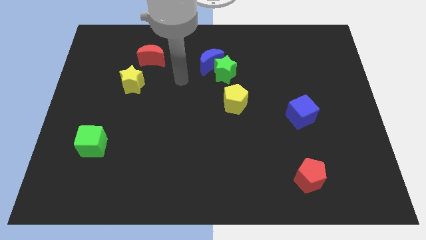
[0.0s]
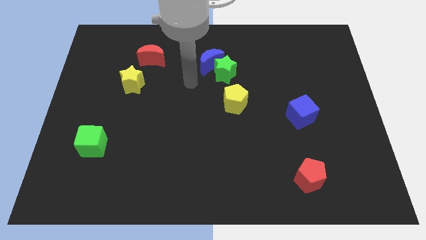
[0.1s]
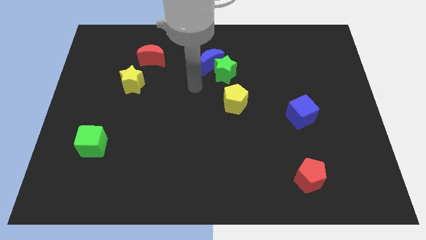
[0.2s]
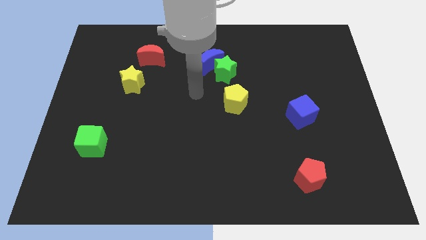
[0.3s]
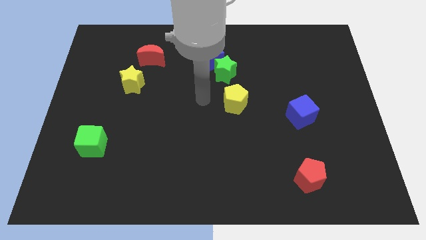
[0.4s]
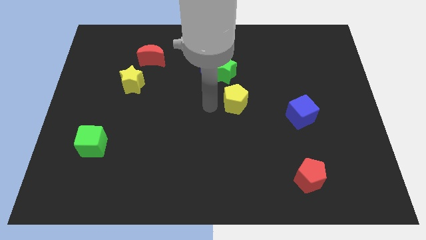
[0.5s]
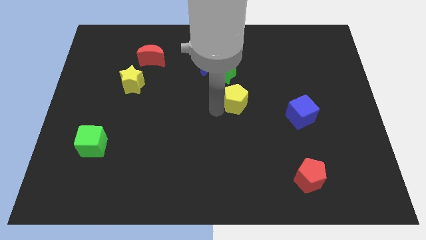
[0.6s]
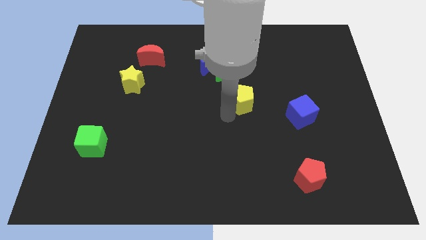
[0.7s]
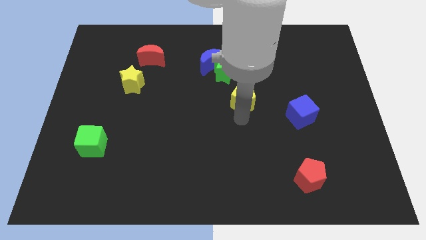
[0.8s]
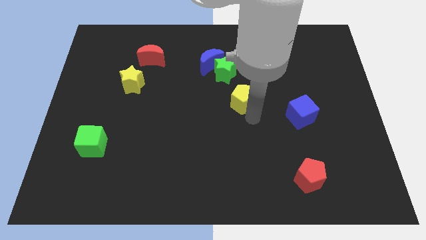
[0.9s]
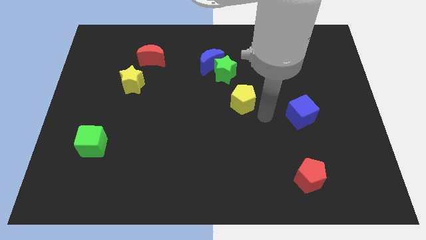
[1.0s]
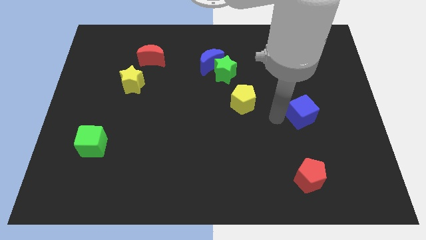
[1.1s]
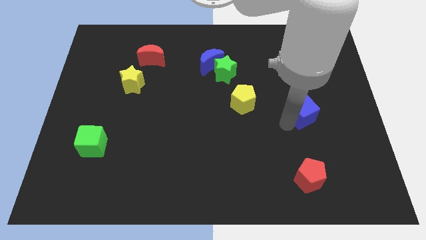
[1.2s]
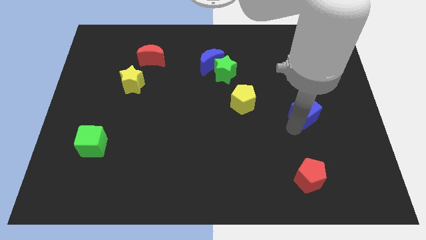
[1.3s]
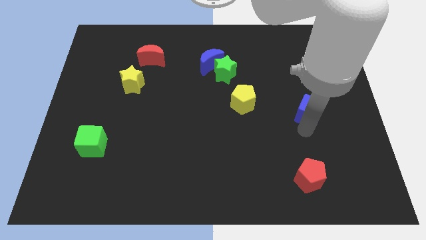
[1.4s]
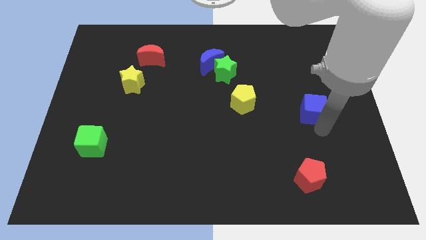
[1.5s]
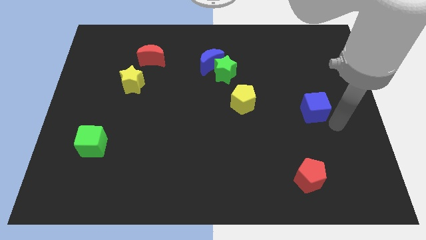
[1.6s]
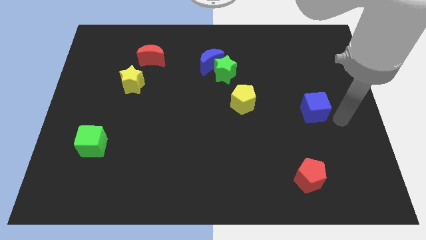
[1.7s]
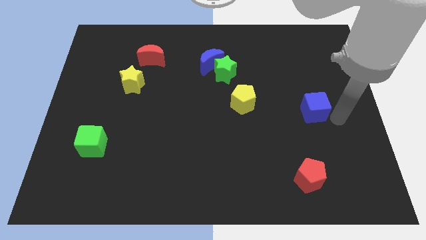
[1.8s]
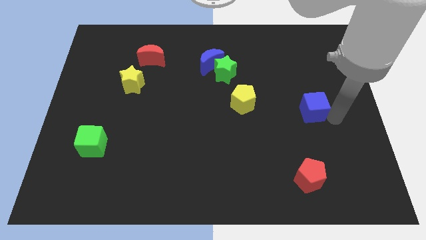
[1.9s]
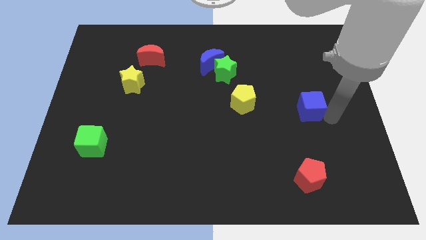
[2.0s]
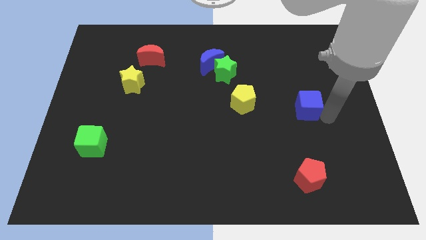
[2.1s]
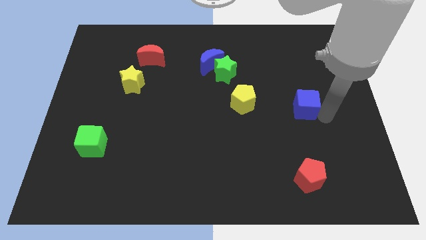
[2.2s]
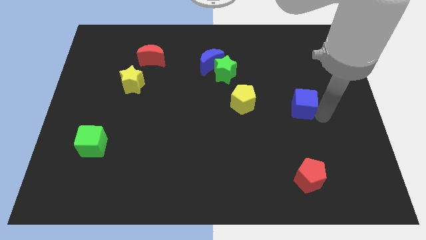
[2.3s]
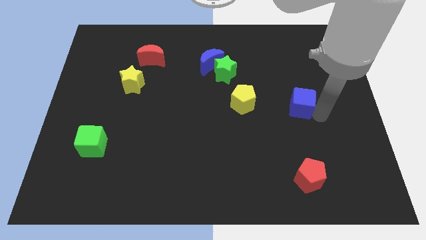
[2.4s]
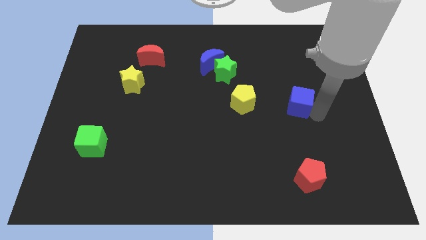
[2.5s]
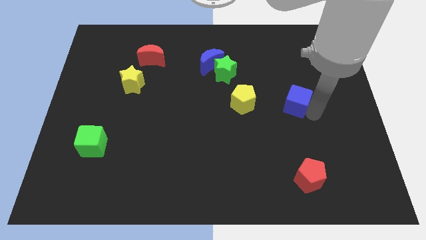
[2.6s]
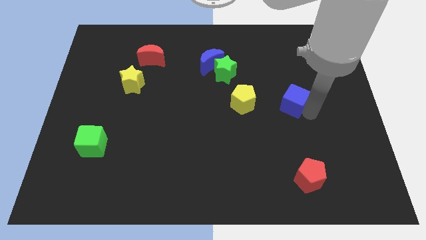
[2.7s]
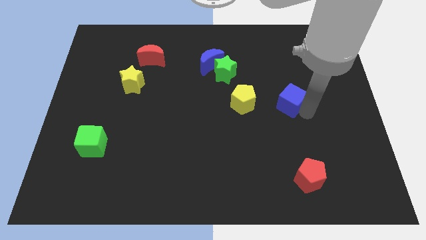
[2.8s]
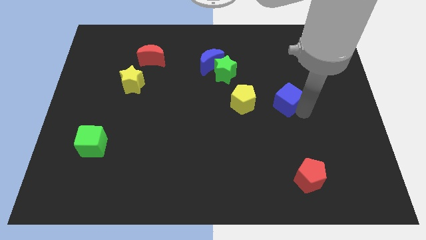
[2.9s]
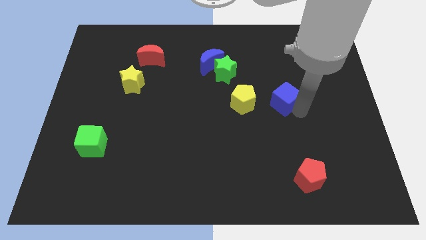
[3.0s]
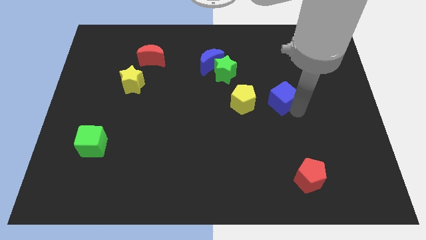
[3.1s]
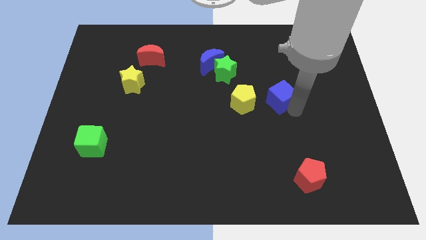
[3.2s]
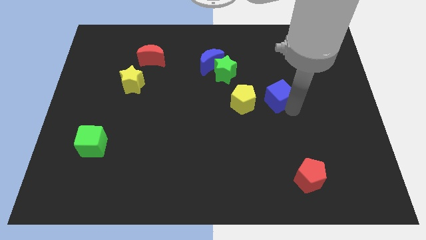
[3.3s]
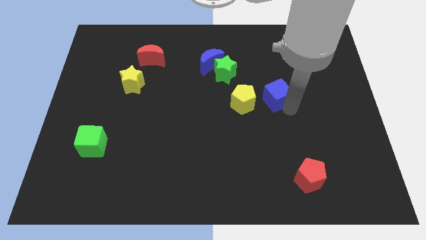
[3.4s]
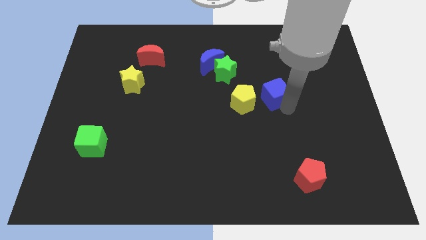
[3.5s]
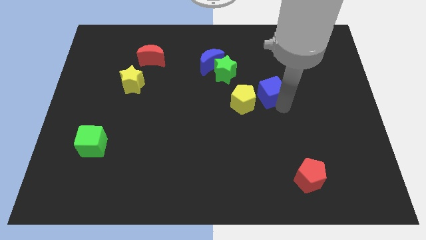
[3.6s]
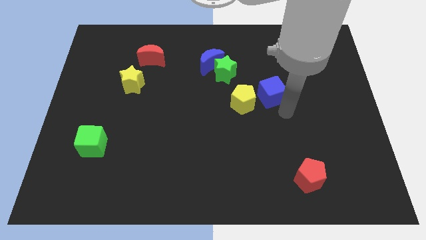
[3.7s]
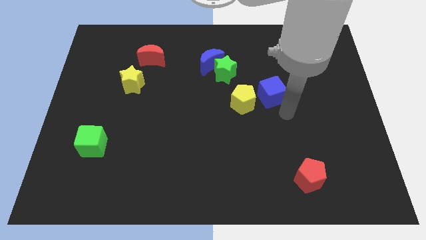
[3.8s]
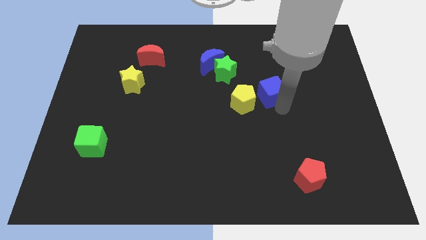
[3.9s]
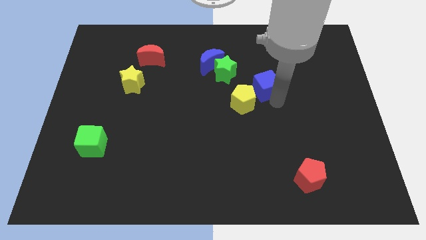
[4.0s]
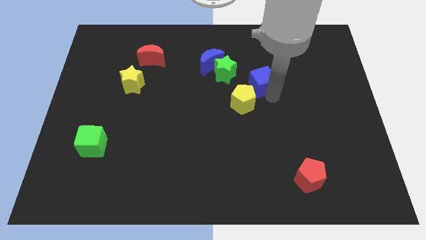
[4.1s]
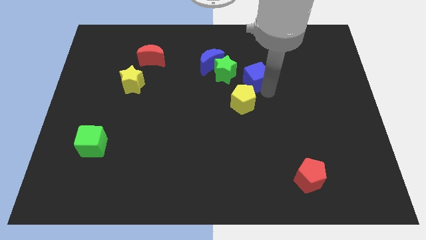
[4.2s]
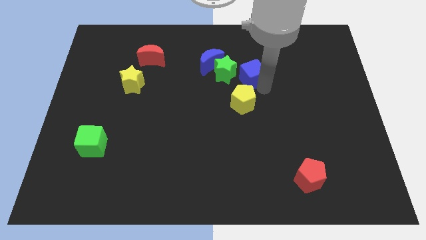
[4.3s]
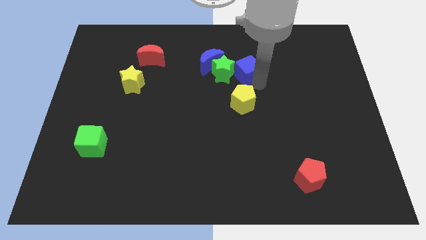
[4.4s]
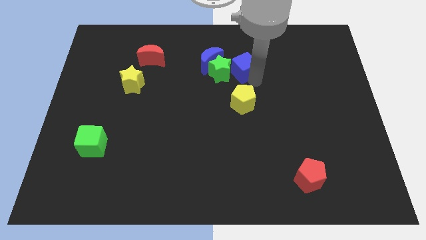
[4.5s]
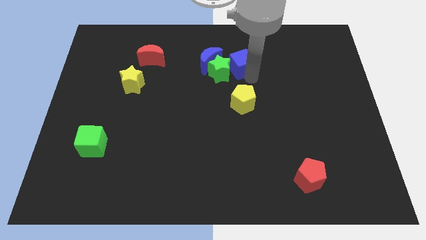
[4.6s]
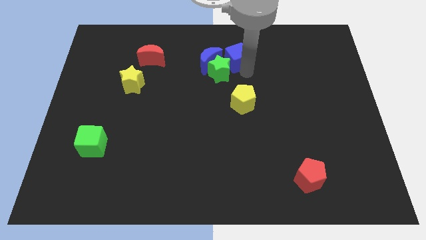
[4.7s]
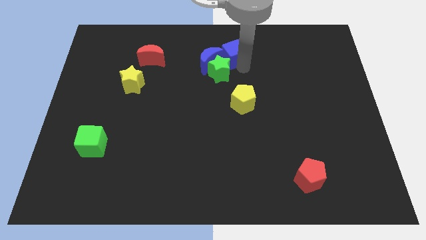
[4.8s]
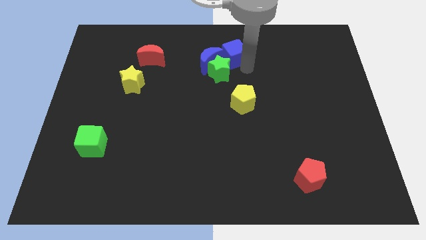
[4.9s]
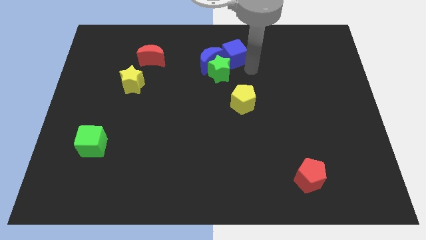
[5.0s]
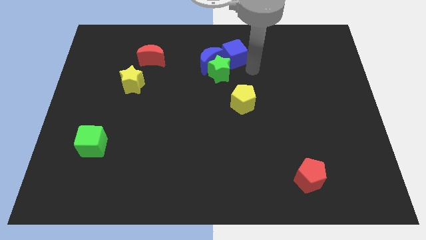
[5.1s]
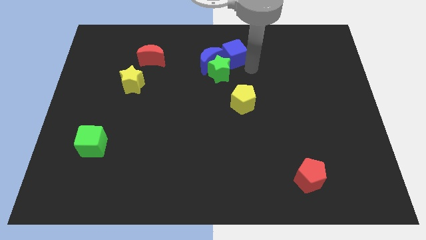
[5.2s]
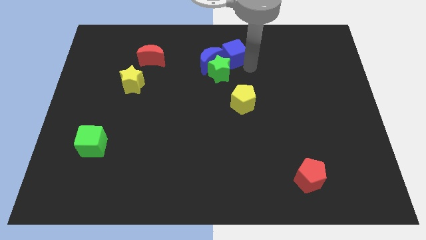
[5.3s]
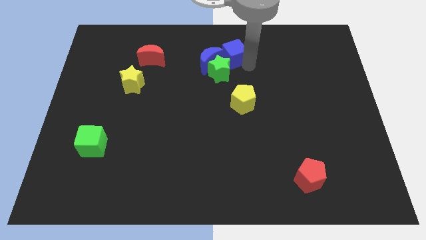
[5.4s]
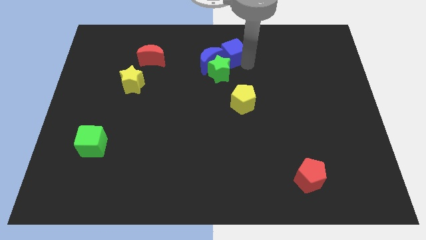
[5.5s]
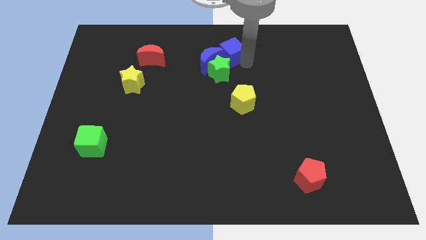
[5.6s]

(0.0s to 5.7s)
put the blue cube to the top

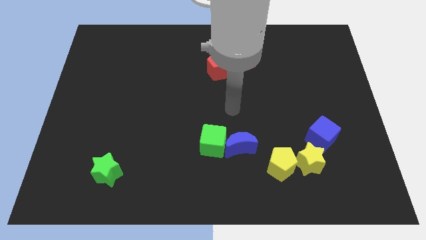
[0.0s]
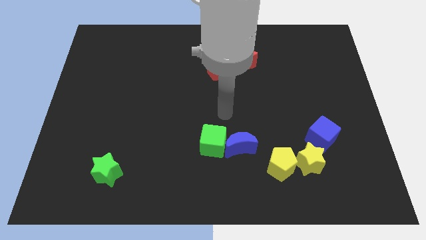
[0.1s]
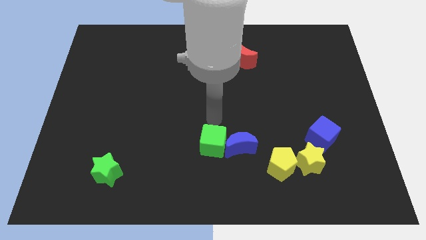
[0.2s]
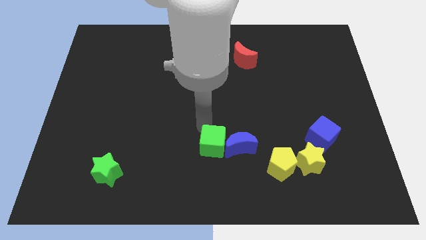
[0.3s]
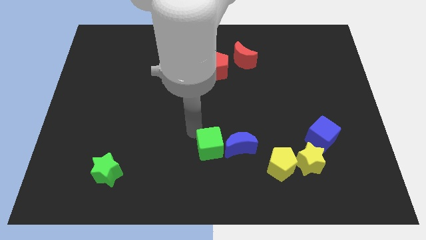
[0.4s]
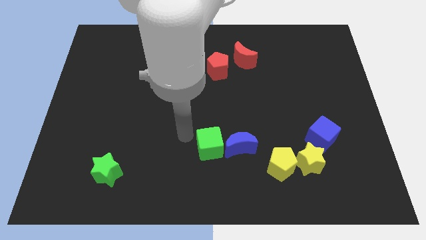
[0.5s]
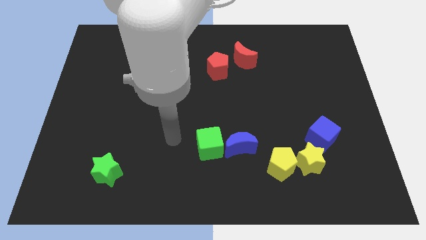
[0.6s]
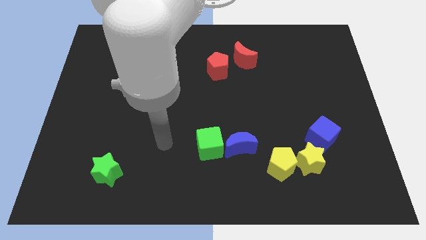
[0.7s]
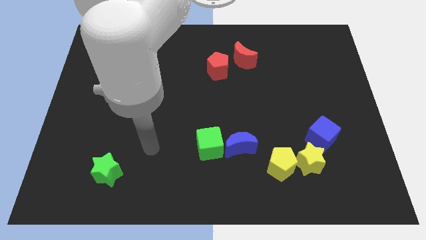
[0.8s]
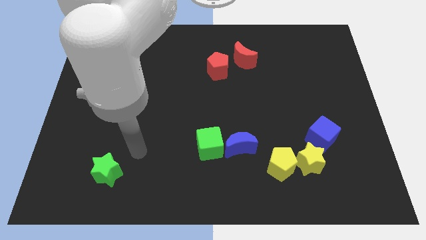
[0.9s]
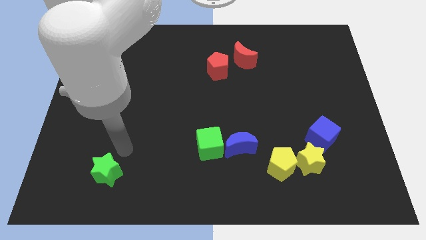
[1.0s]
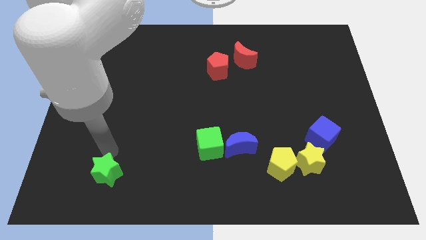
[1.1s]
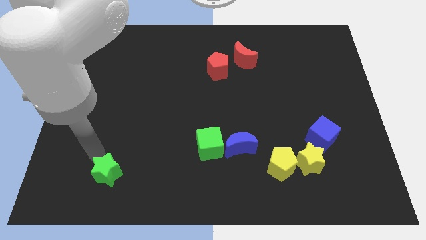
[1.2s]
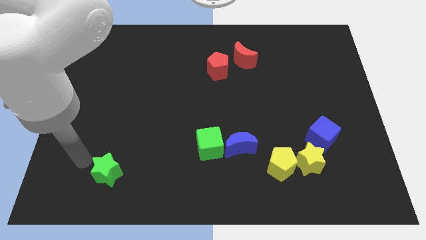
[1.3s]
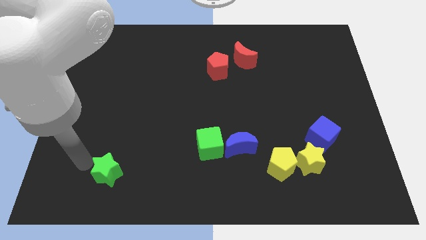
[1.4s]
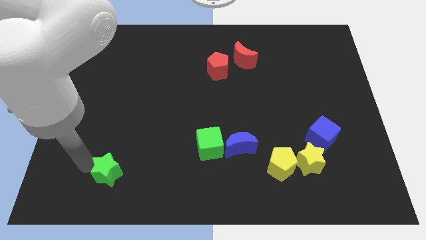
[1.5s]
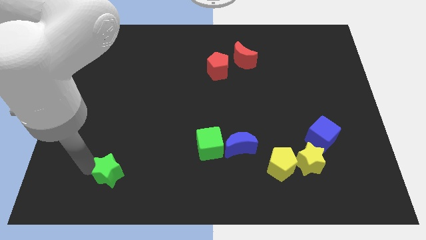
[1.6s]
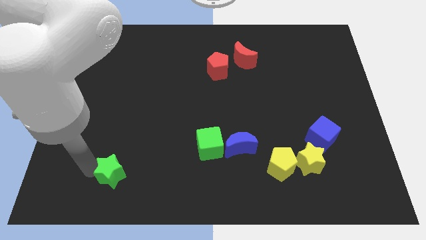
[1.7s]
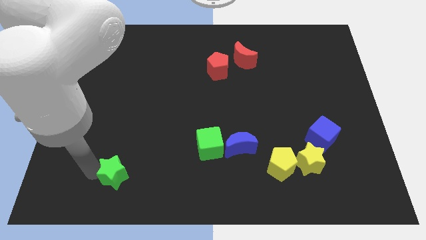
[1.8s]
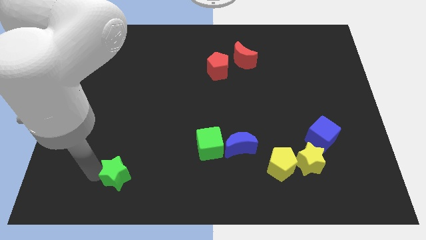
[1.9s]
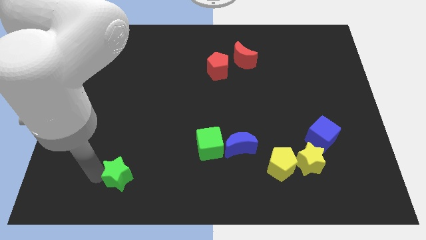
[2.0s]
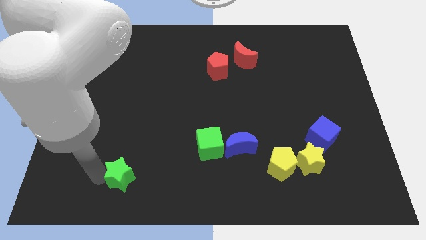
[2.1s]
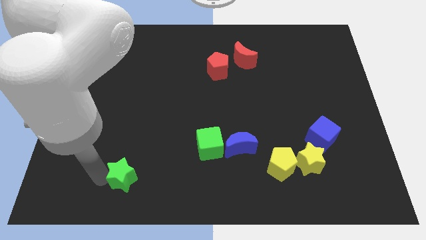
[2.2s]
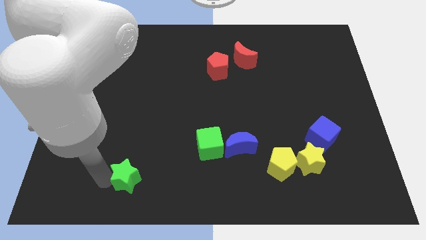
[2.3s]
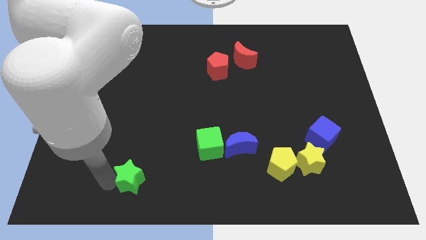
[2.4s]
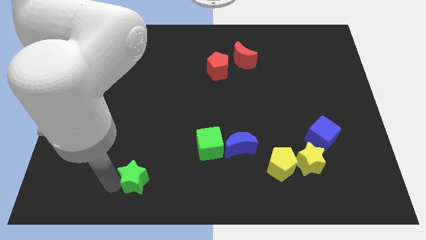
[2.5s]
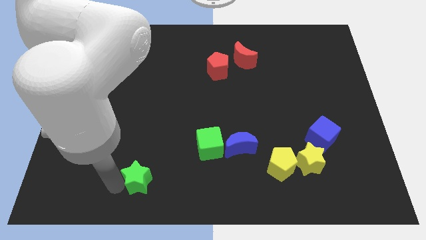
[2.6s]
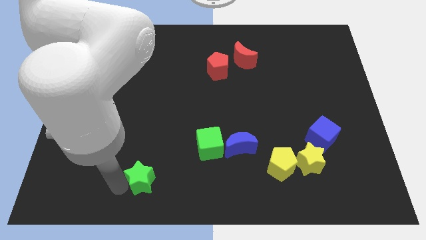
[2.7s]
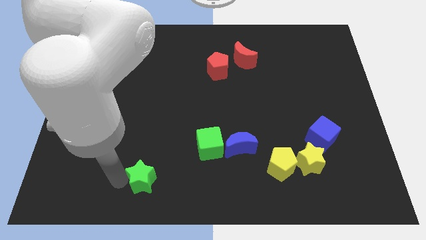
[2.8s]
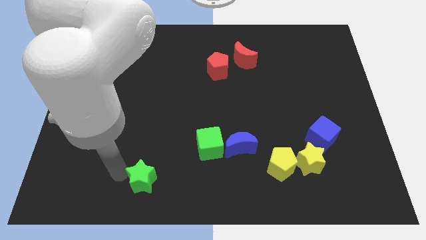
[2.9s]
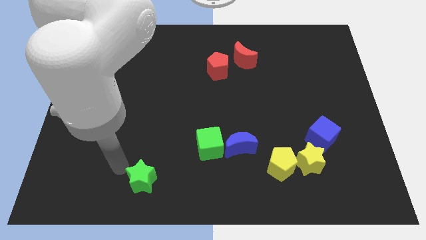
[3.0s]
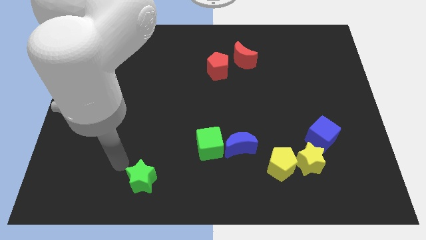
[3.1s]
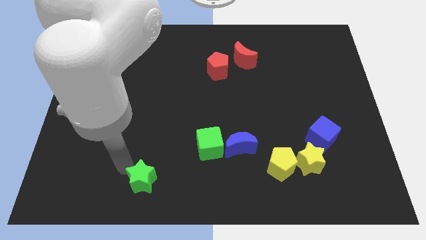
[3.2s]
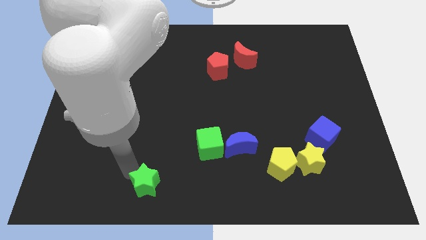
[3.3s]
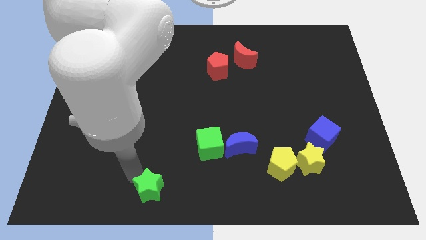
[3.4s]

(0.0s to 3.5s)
move the green star to the bottom side
